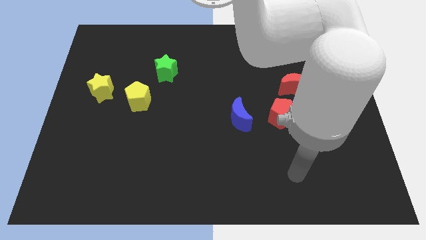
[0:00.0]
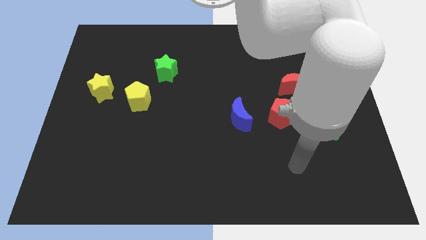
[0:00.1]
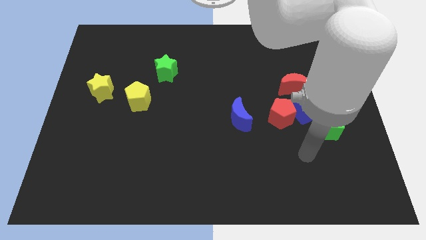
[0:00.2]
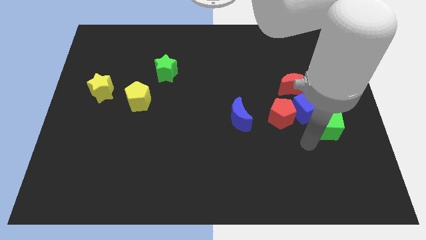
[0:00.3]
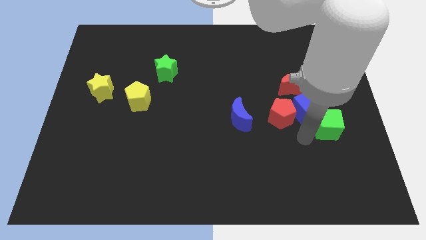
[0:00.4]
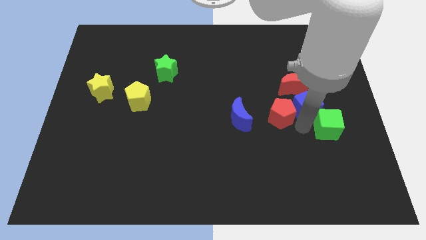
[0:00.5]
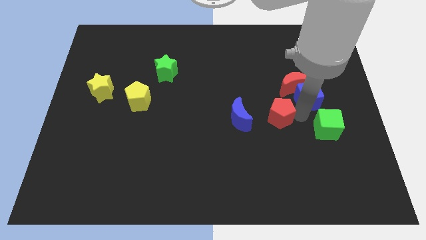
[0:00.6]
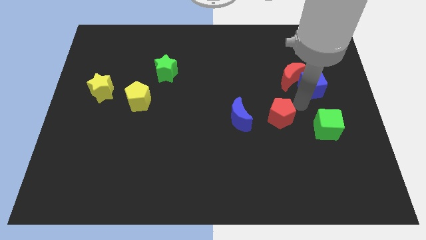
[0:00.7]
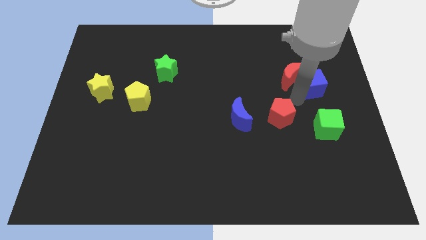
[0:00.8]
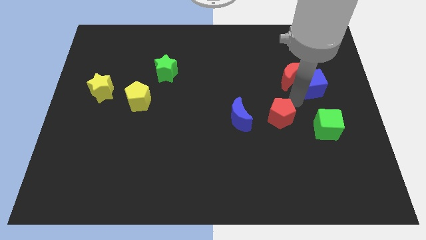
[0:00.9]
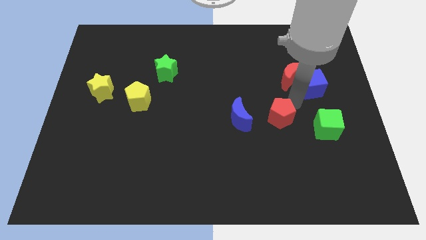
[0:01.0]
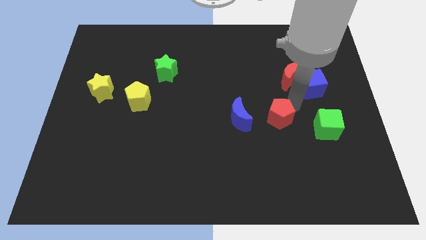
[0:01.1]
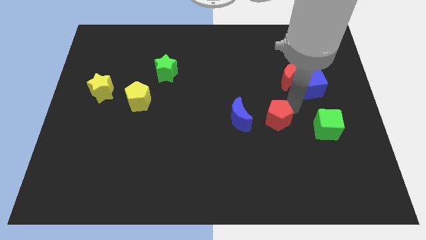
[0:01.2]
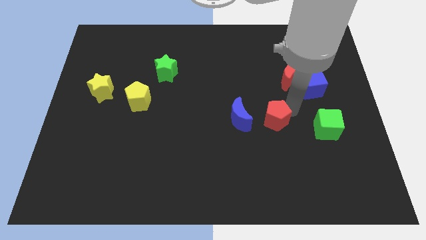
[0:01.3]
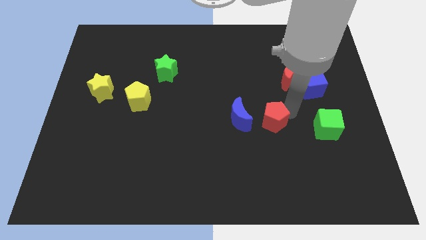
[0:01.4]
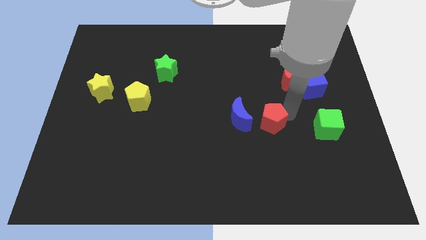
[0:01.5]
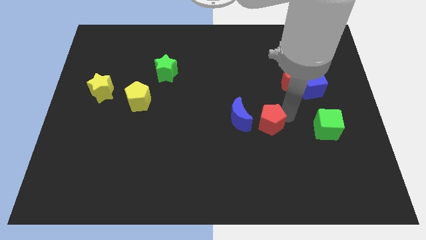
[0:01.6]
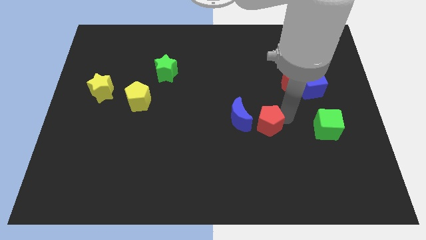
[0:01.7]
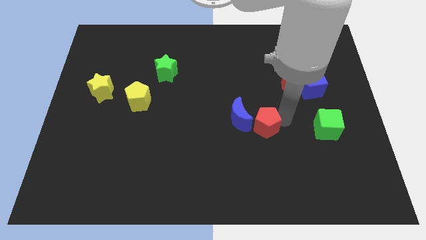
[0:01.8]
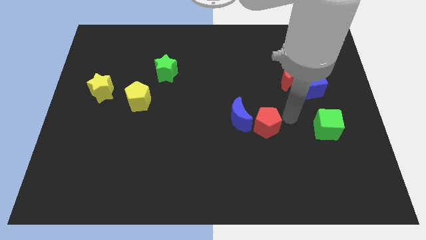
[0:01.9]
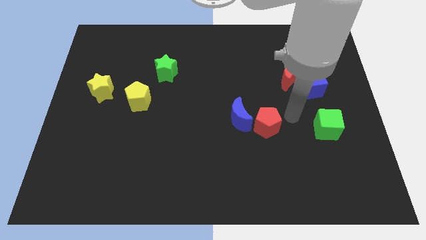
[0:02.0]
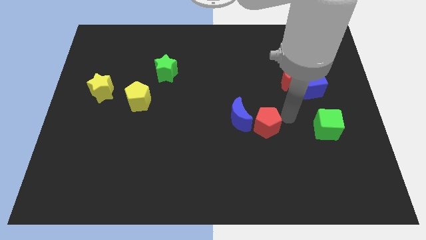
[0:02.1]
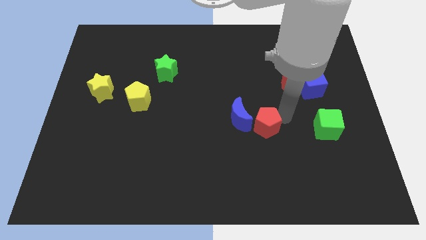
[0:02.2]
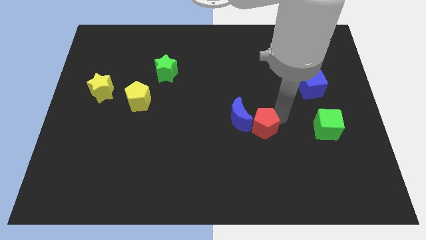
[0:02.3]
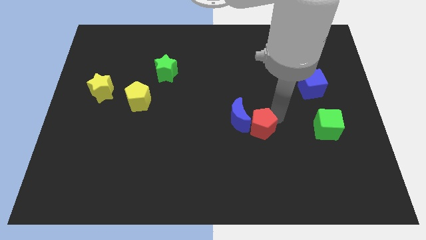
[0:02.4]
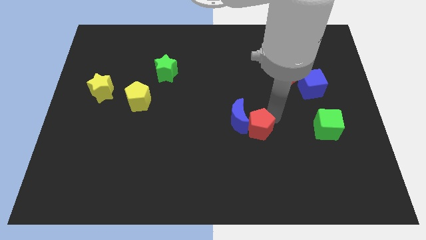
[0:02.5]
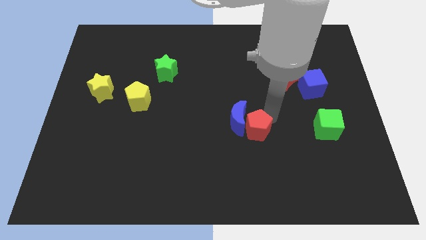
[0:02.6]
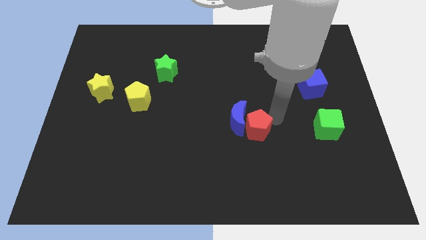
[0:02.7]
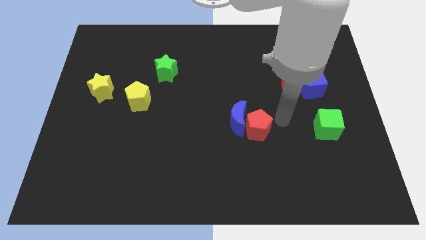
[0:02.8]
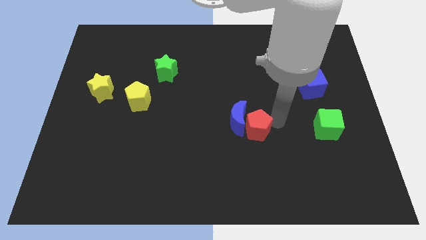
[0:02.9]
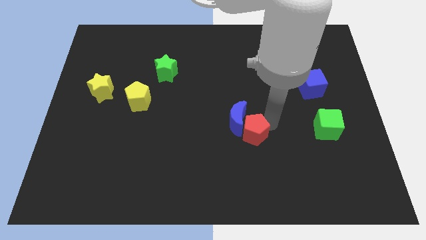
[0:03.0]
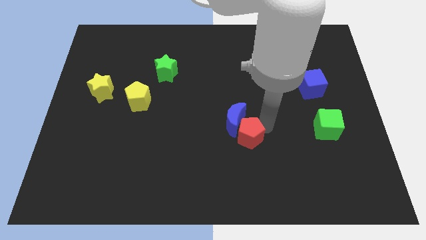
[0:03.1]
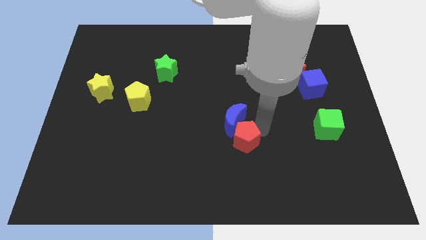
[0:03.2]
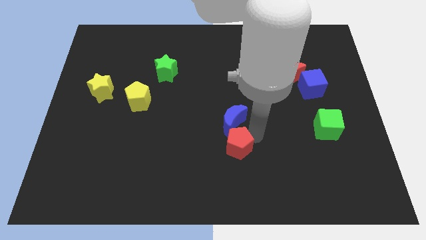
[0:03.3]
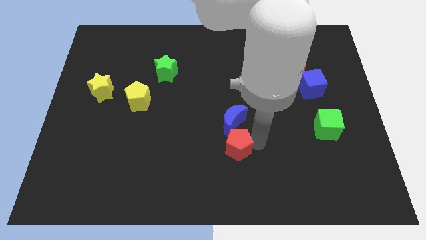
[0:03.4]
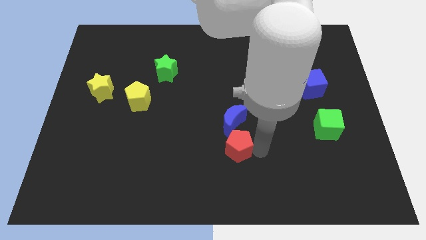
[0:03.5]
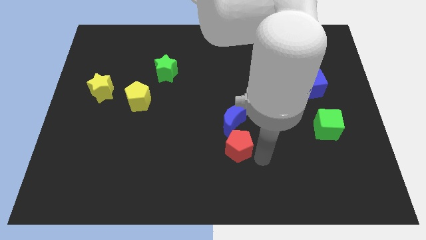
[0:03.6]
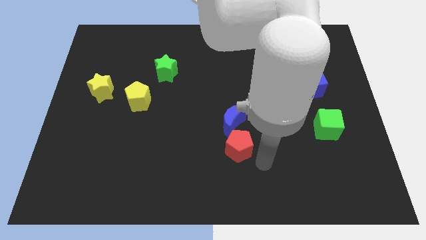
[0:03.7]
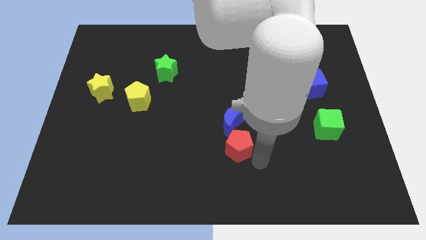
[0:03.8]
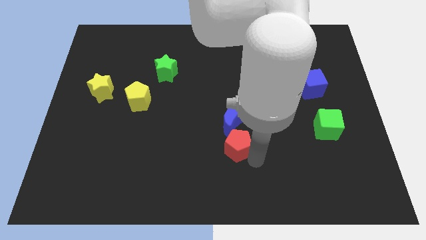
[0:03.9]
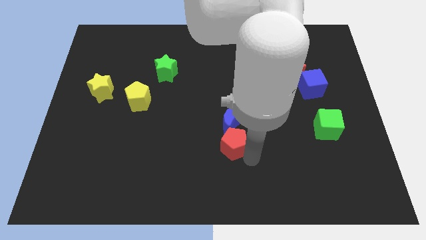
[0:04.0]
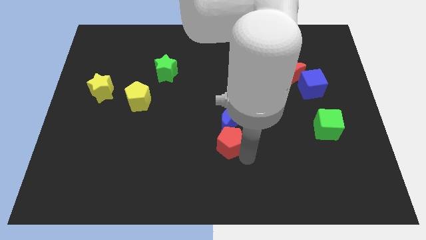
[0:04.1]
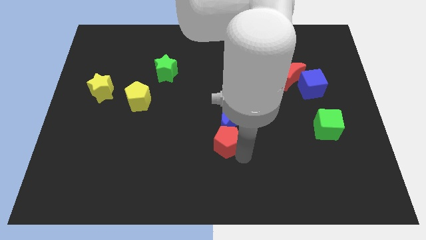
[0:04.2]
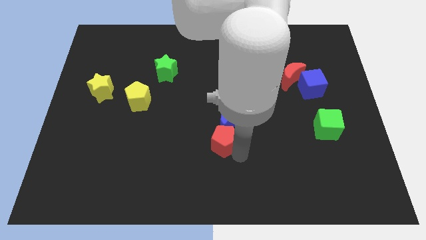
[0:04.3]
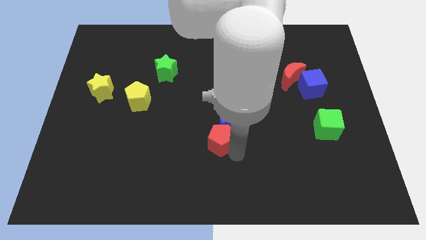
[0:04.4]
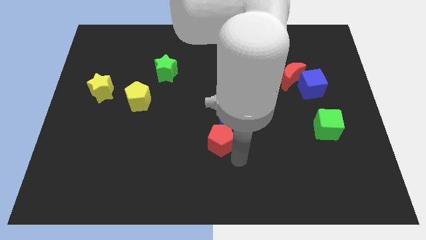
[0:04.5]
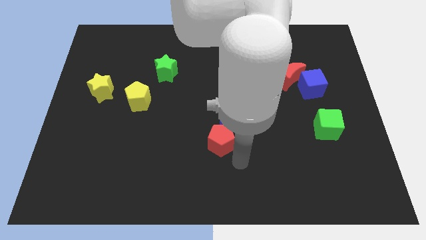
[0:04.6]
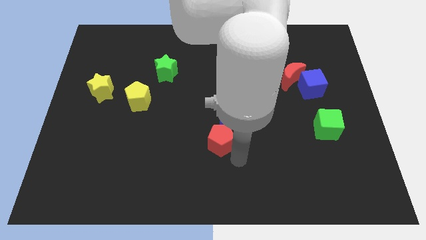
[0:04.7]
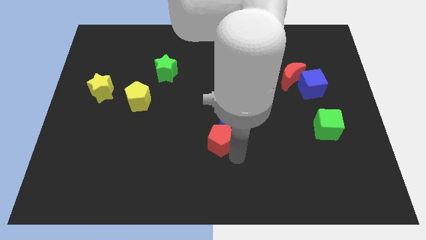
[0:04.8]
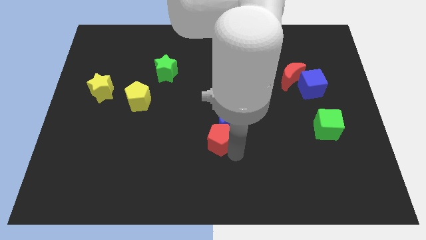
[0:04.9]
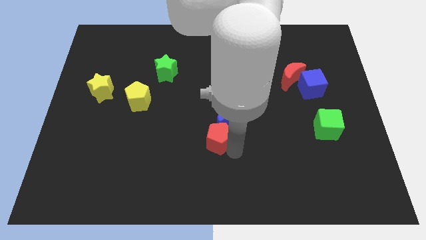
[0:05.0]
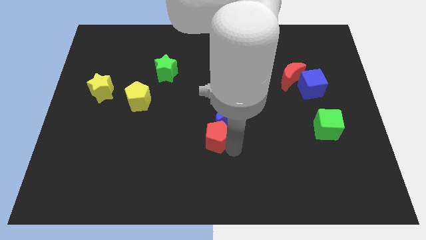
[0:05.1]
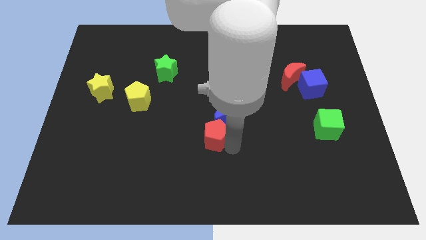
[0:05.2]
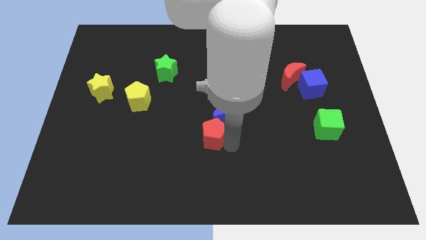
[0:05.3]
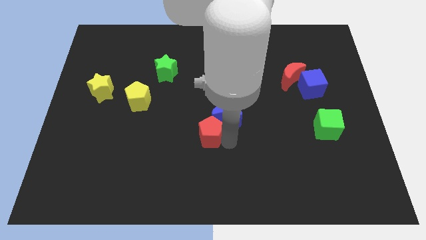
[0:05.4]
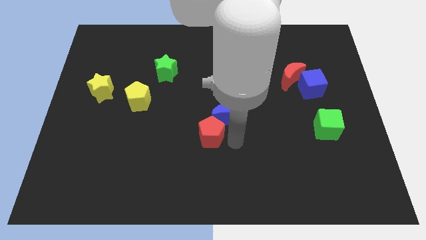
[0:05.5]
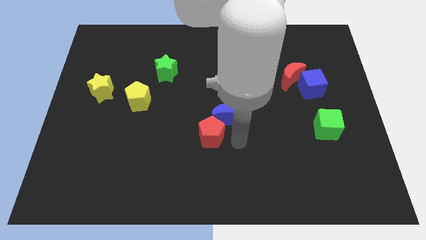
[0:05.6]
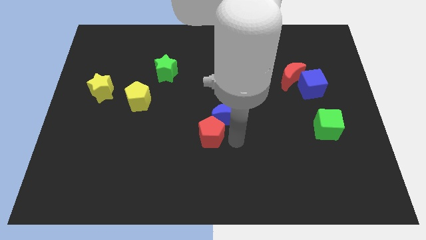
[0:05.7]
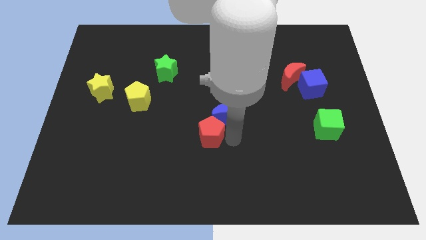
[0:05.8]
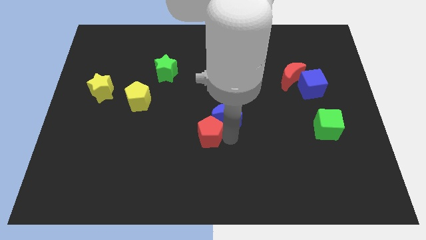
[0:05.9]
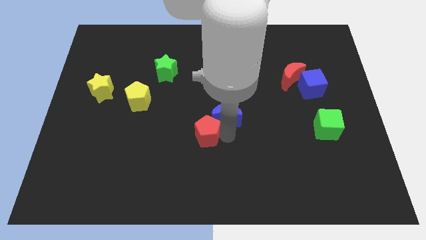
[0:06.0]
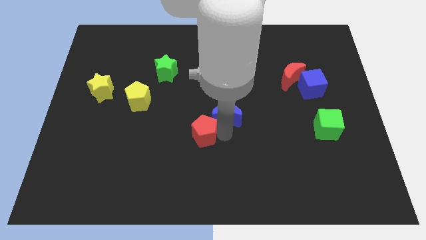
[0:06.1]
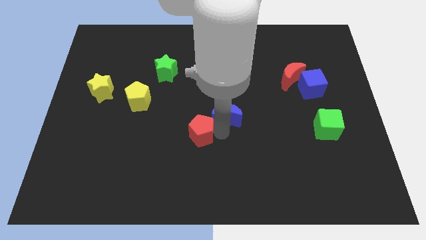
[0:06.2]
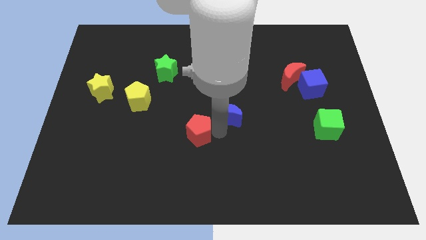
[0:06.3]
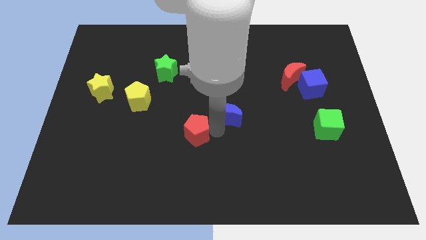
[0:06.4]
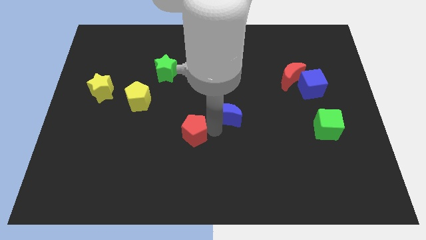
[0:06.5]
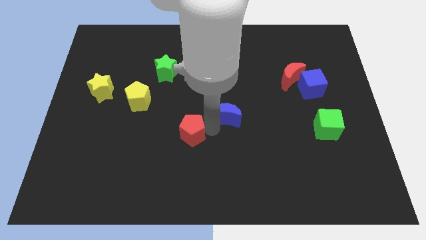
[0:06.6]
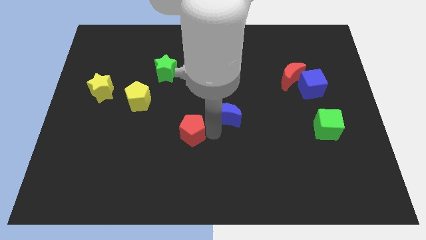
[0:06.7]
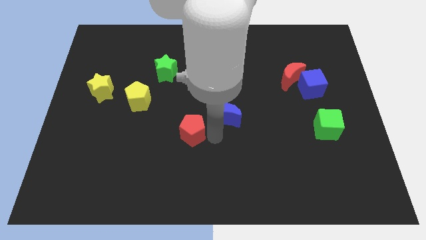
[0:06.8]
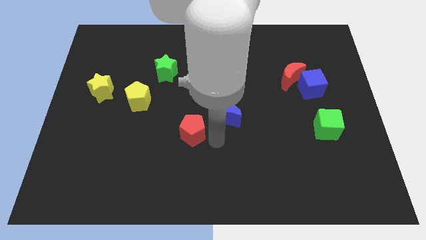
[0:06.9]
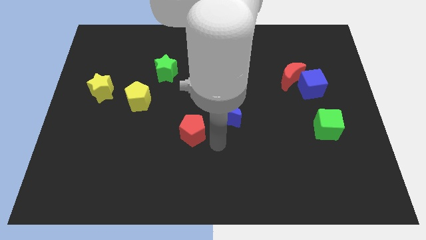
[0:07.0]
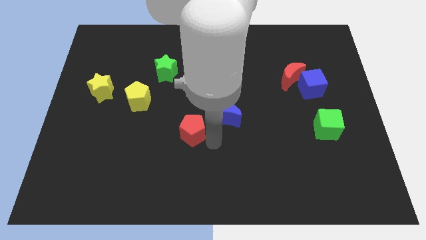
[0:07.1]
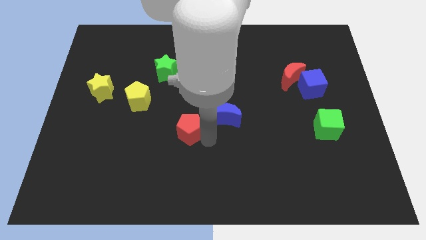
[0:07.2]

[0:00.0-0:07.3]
move the red pentagon left

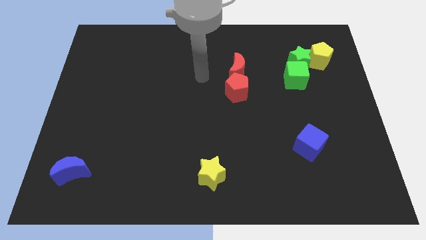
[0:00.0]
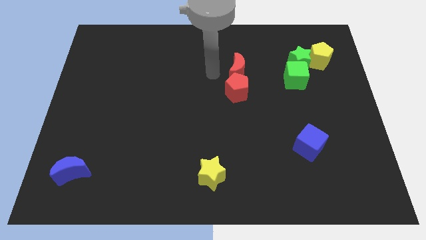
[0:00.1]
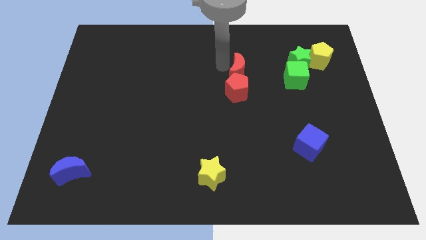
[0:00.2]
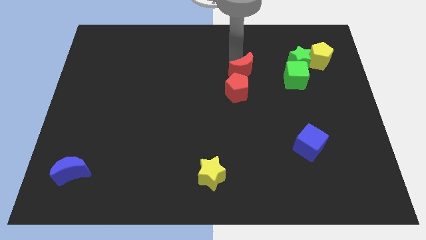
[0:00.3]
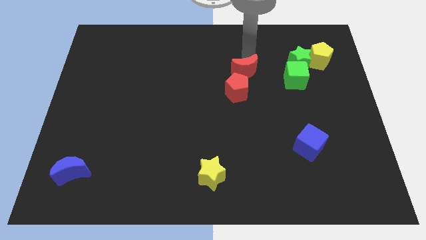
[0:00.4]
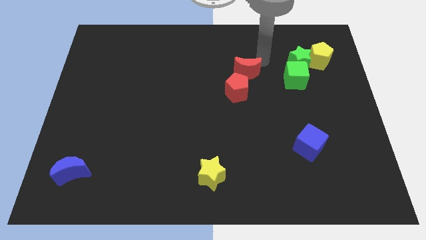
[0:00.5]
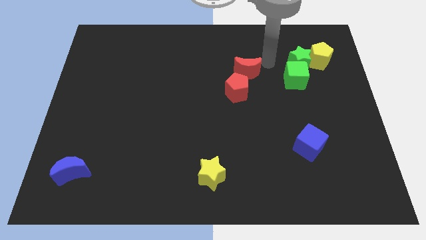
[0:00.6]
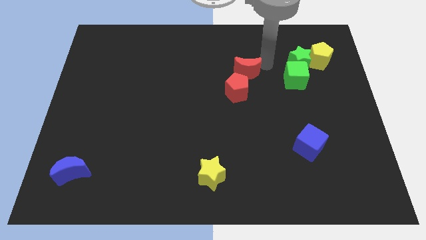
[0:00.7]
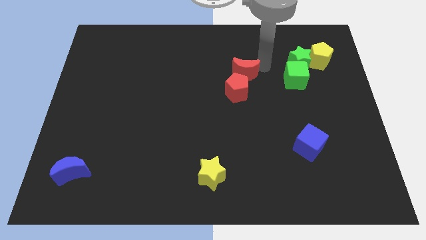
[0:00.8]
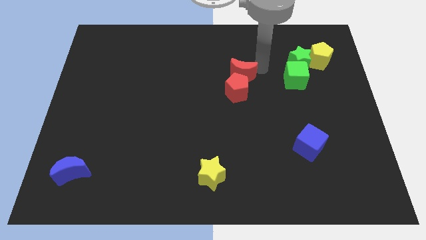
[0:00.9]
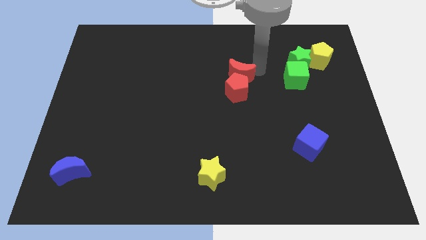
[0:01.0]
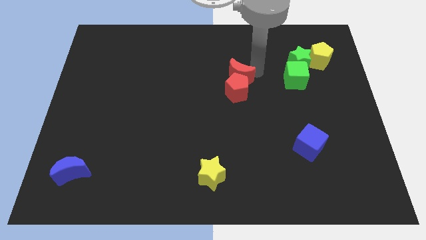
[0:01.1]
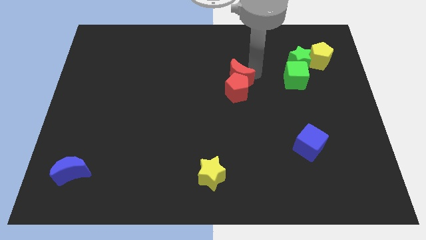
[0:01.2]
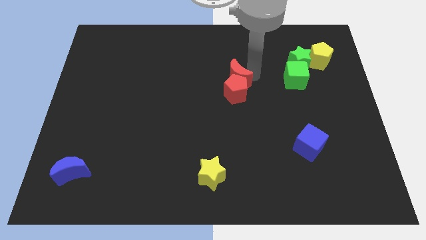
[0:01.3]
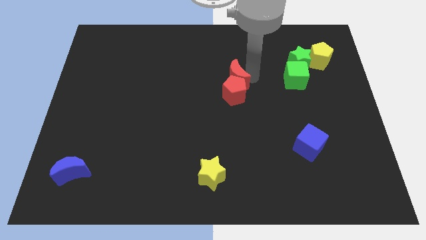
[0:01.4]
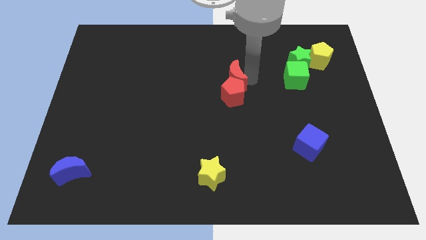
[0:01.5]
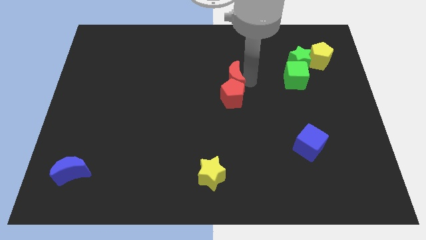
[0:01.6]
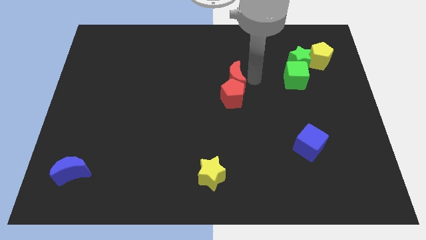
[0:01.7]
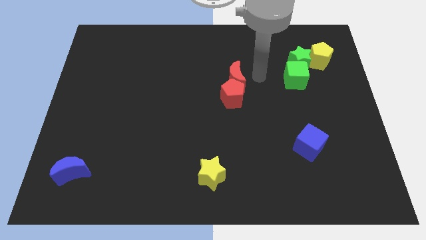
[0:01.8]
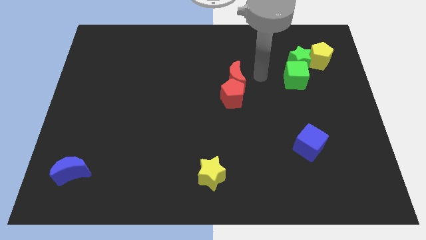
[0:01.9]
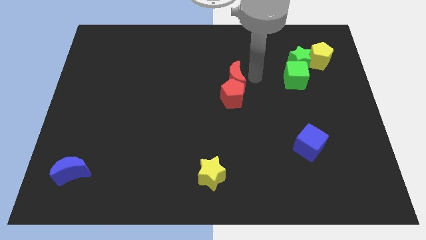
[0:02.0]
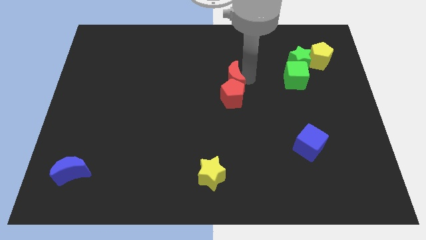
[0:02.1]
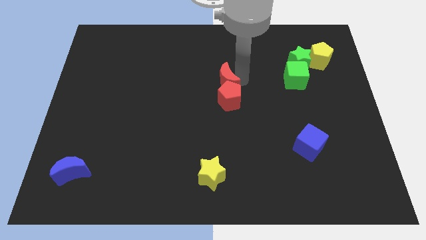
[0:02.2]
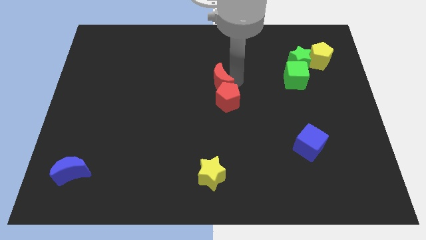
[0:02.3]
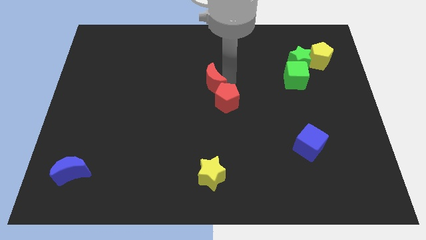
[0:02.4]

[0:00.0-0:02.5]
slide the red moon a bit downwards and left diagonally
